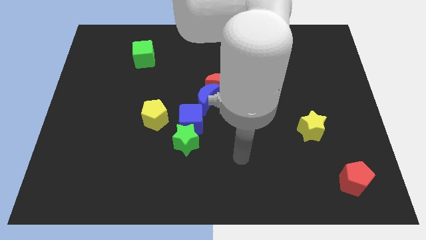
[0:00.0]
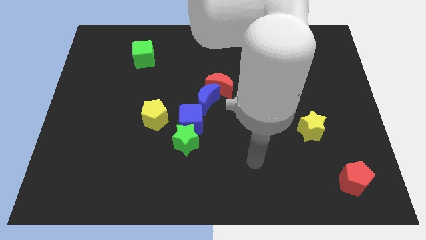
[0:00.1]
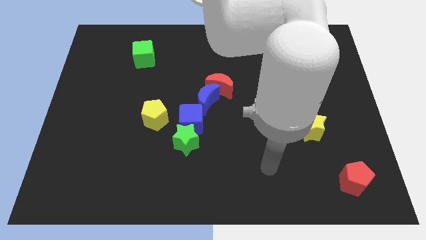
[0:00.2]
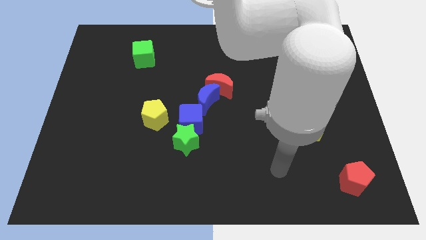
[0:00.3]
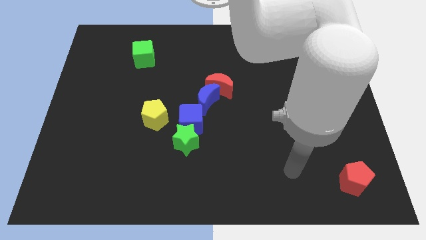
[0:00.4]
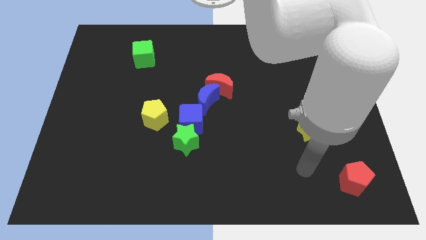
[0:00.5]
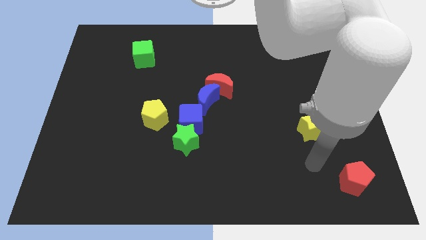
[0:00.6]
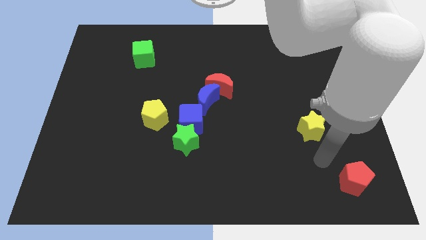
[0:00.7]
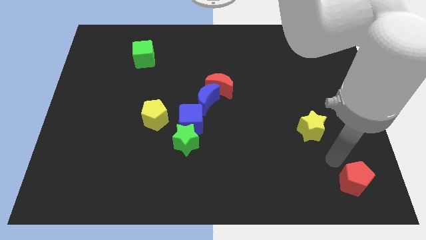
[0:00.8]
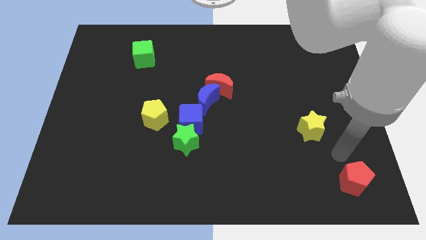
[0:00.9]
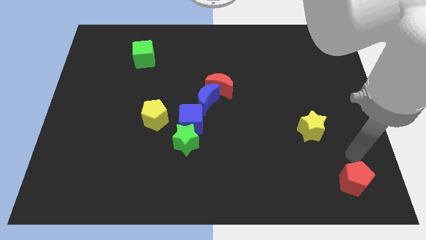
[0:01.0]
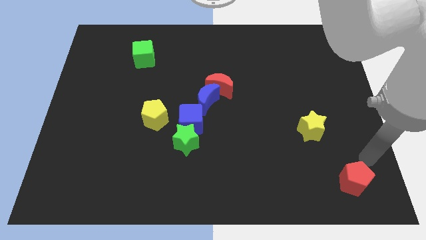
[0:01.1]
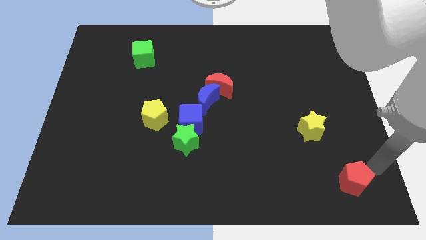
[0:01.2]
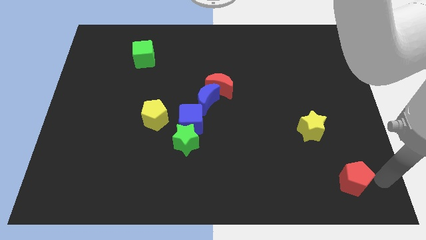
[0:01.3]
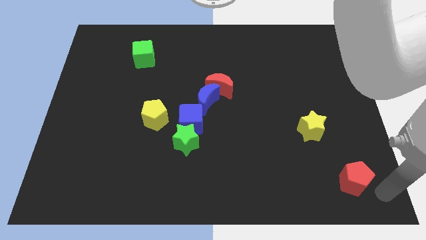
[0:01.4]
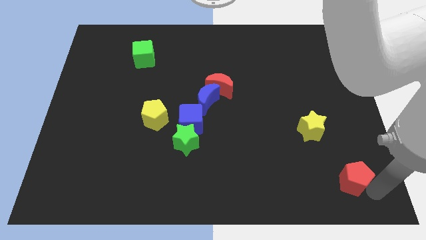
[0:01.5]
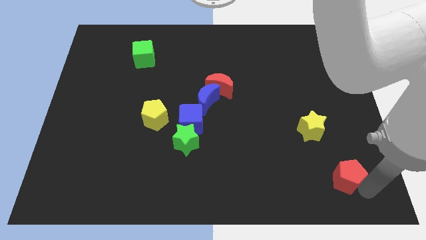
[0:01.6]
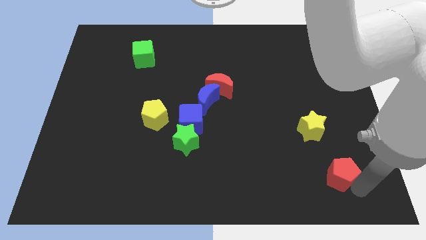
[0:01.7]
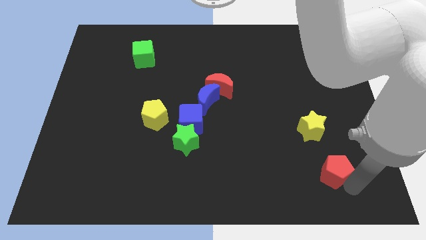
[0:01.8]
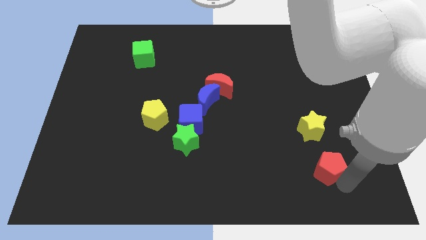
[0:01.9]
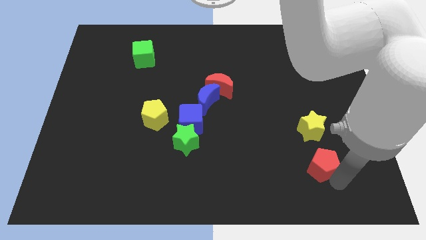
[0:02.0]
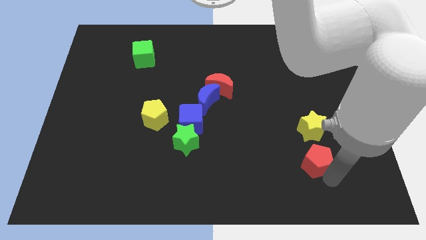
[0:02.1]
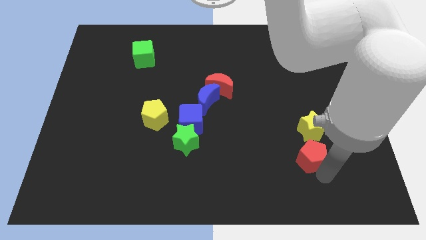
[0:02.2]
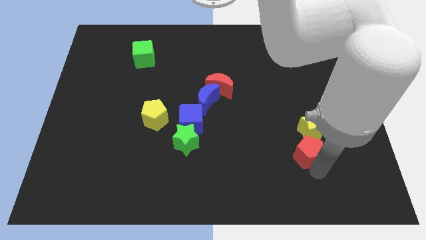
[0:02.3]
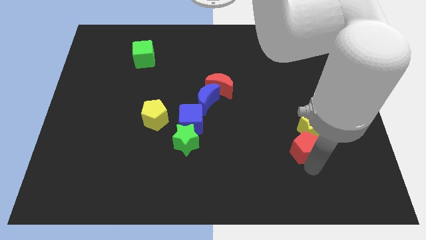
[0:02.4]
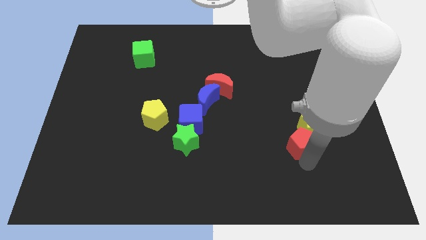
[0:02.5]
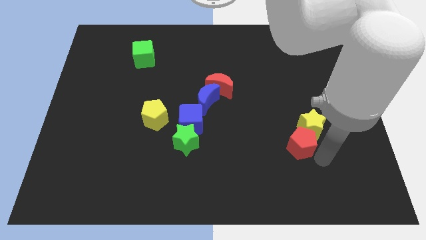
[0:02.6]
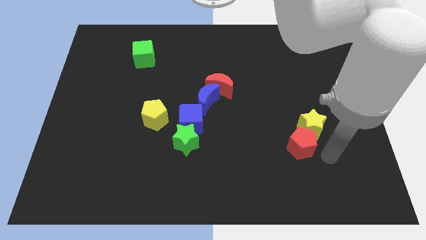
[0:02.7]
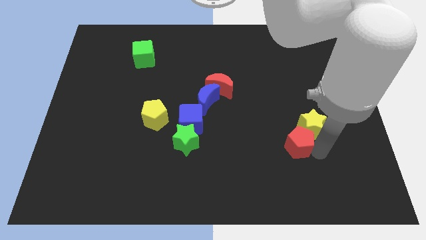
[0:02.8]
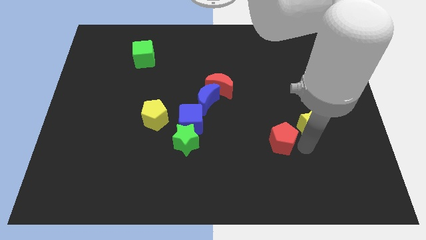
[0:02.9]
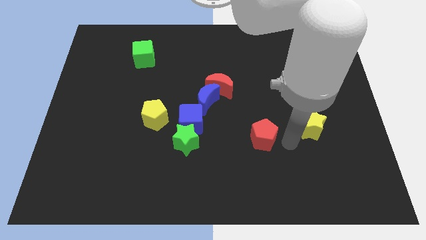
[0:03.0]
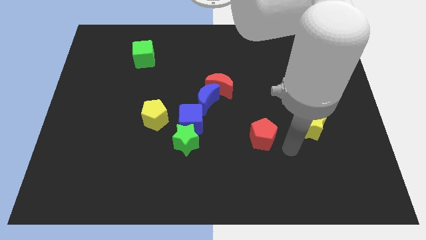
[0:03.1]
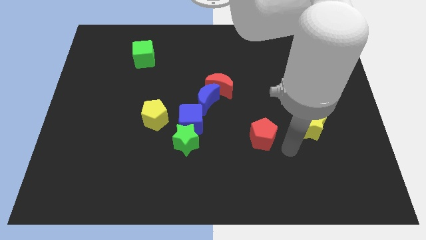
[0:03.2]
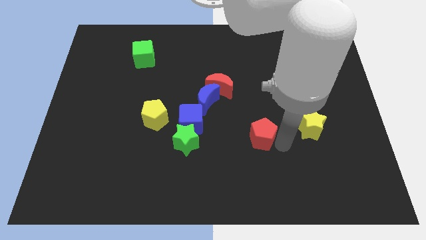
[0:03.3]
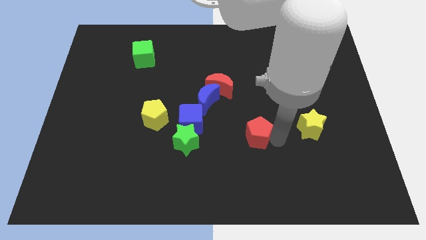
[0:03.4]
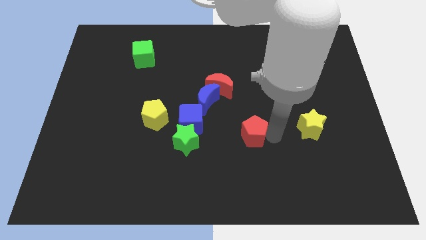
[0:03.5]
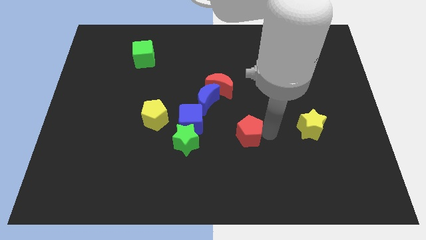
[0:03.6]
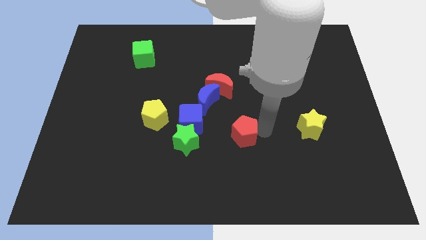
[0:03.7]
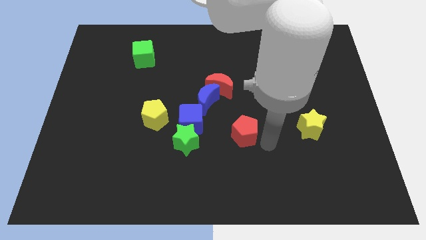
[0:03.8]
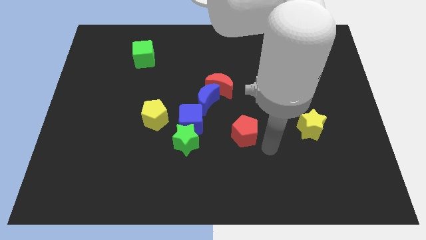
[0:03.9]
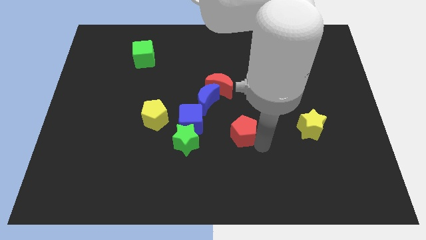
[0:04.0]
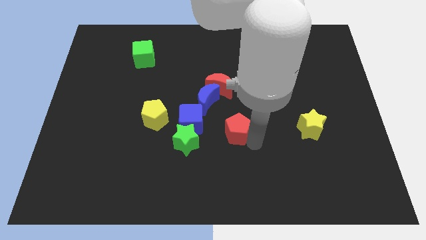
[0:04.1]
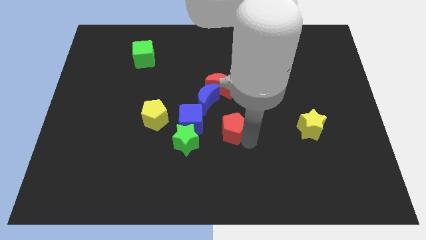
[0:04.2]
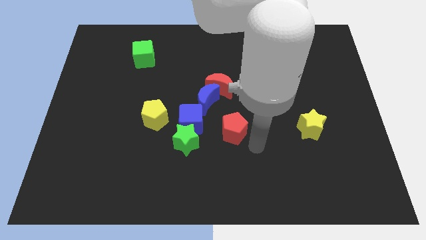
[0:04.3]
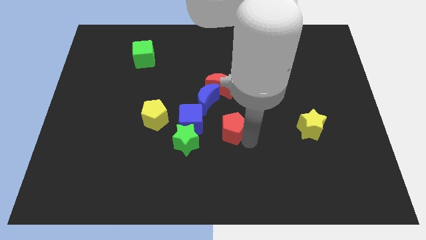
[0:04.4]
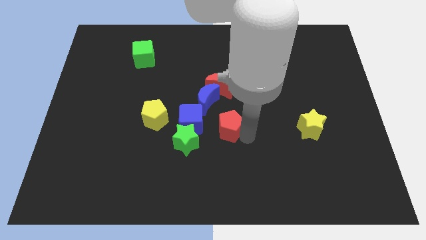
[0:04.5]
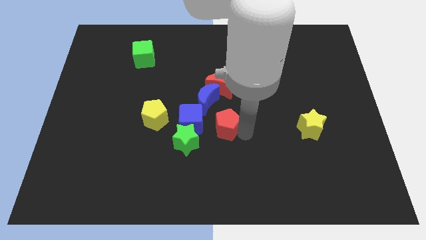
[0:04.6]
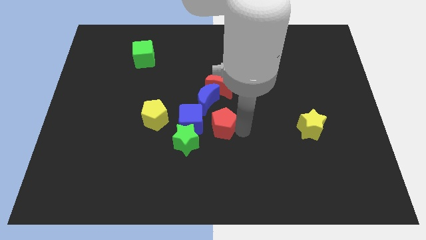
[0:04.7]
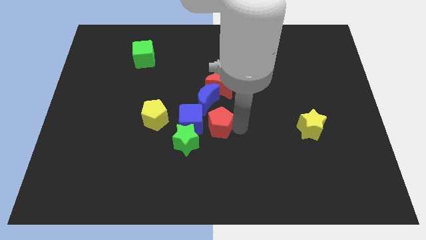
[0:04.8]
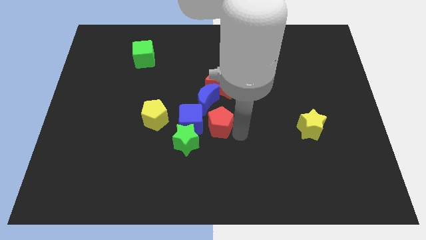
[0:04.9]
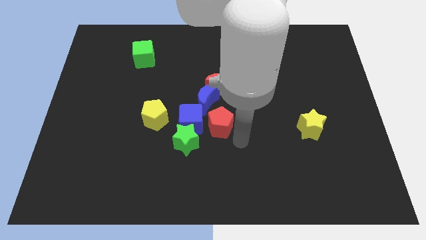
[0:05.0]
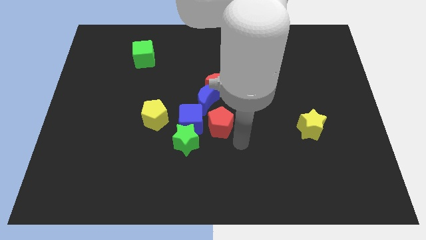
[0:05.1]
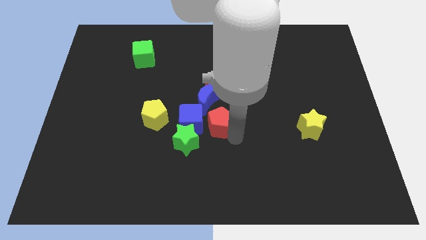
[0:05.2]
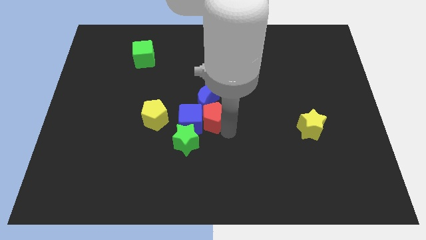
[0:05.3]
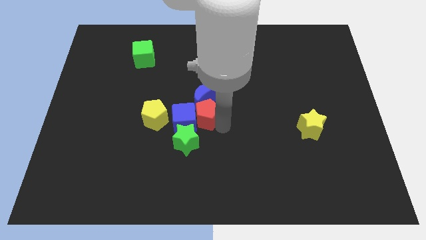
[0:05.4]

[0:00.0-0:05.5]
put the red pentagon diagonally down and to the left of the red moon

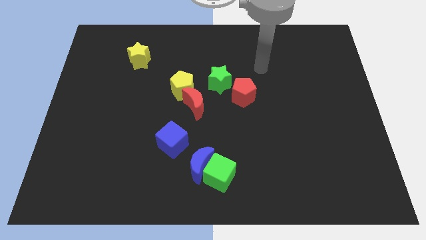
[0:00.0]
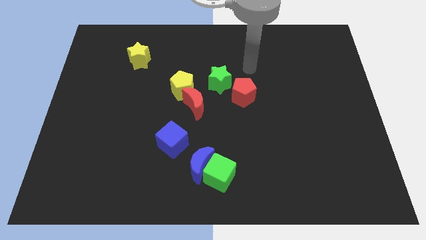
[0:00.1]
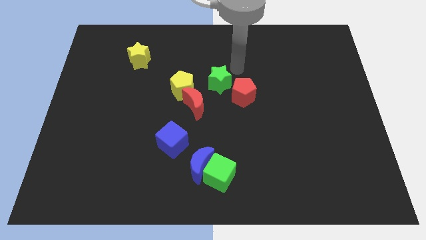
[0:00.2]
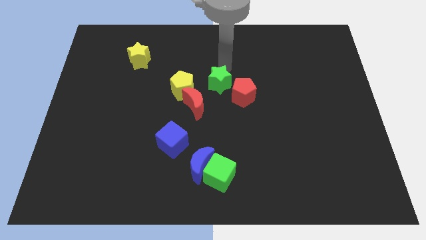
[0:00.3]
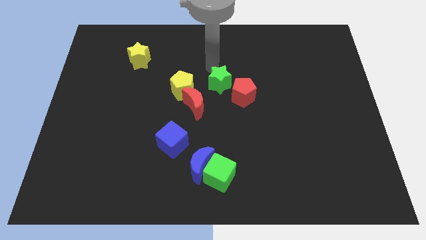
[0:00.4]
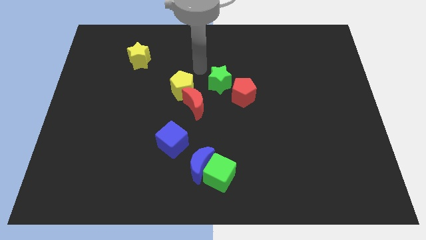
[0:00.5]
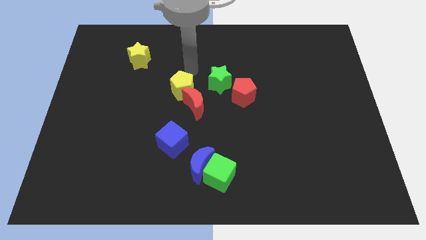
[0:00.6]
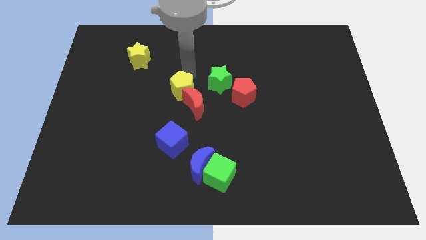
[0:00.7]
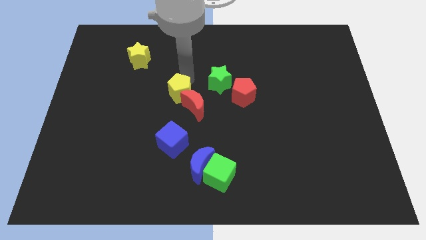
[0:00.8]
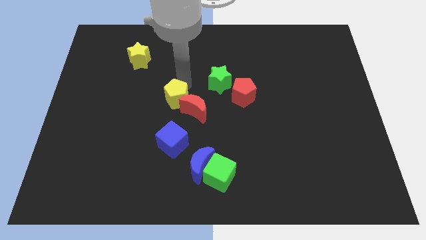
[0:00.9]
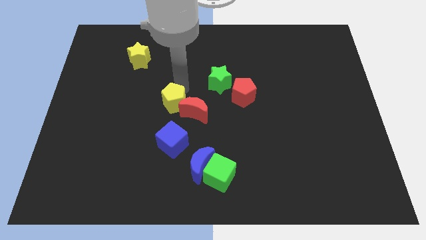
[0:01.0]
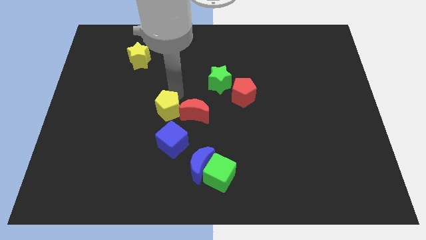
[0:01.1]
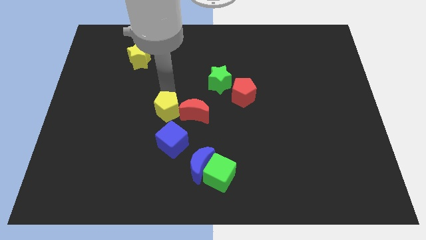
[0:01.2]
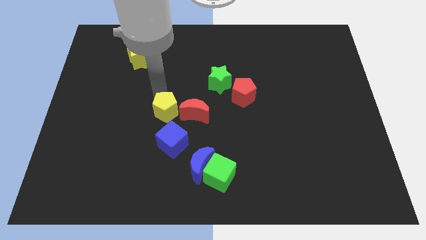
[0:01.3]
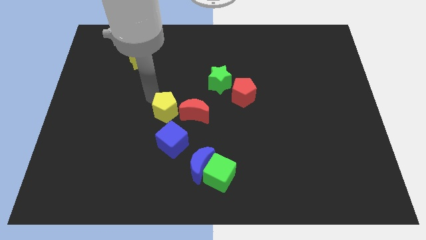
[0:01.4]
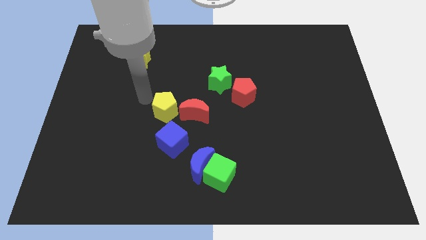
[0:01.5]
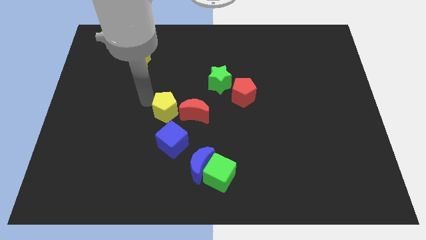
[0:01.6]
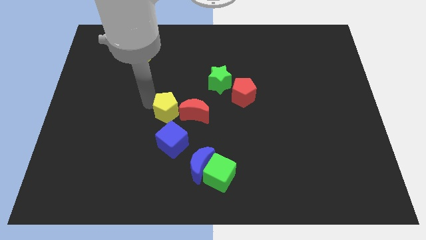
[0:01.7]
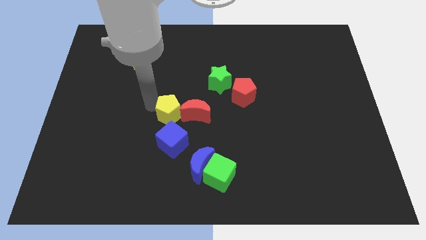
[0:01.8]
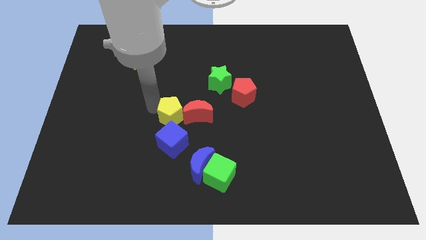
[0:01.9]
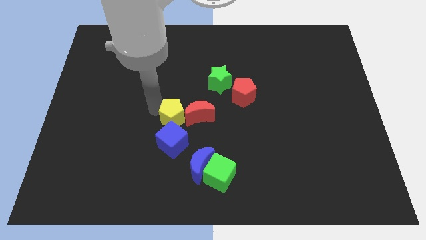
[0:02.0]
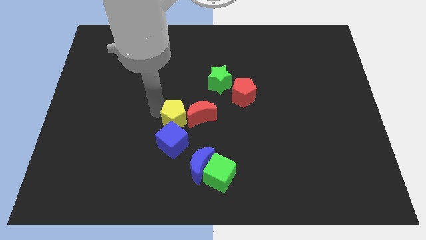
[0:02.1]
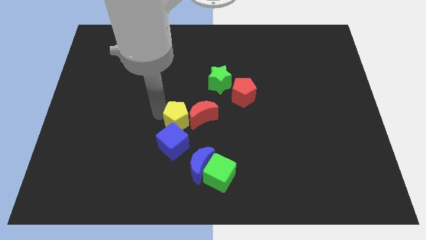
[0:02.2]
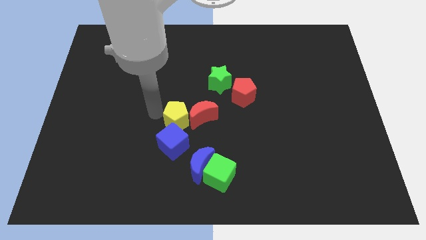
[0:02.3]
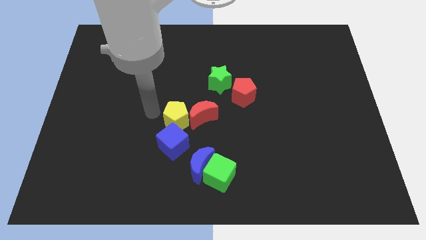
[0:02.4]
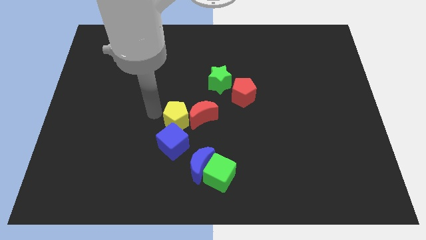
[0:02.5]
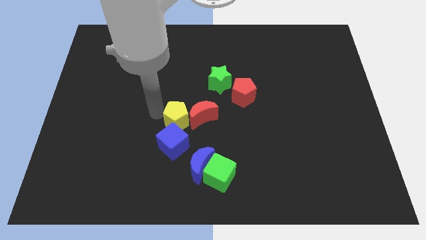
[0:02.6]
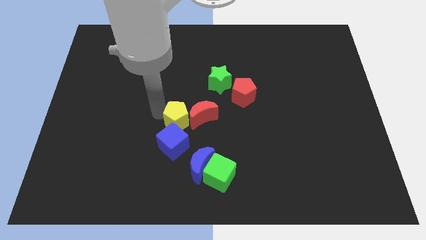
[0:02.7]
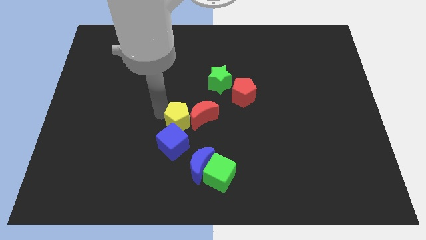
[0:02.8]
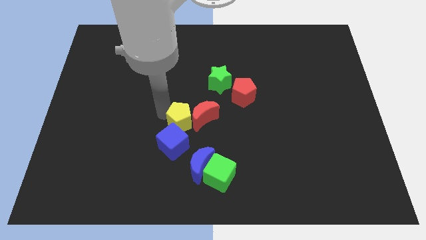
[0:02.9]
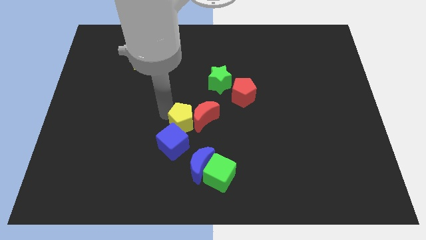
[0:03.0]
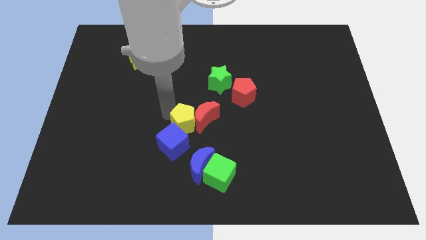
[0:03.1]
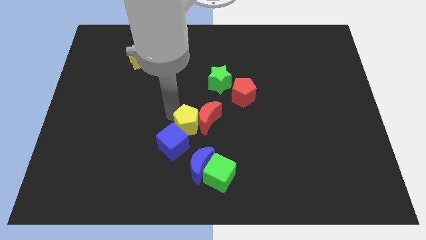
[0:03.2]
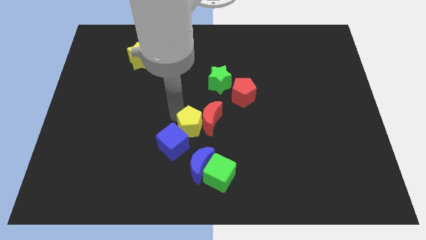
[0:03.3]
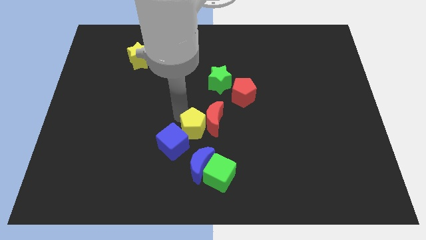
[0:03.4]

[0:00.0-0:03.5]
put the yellow pentagon right of the blue cube
